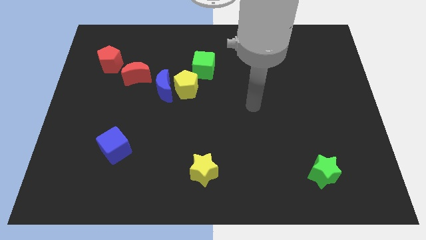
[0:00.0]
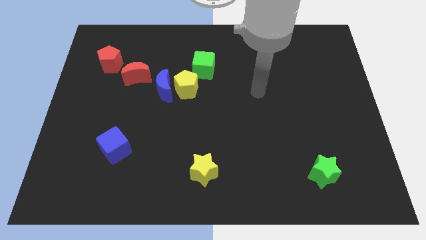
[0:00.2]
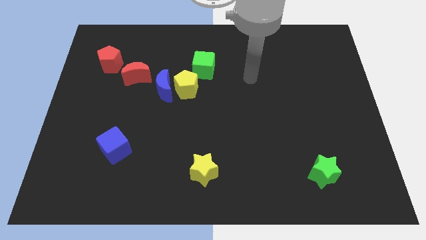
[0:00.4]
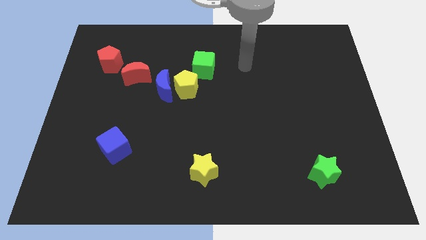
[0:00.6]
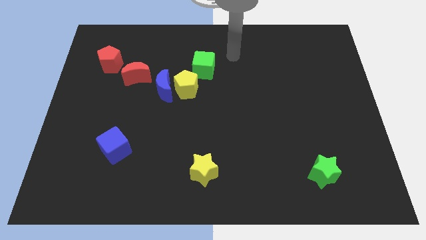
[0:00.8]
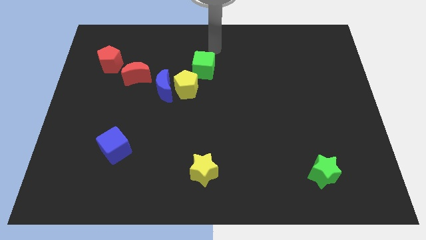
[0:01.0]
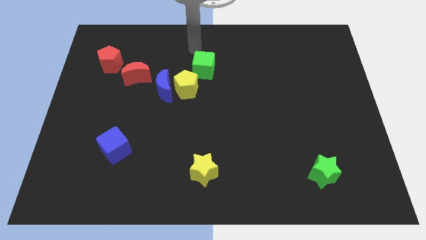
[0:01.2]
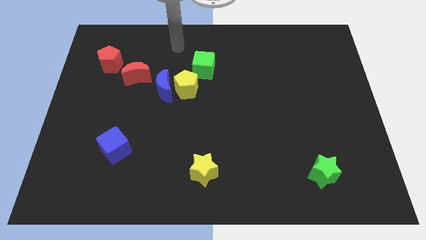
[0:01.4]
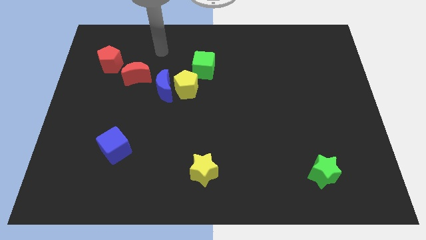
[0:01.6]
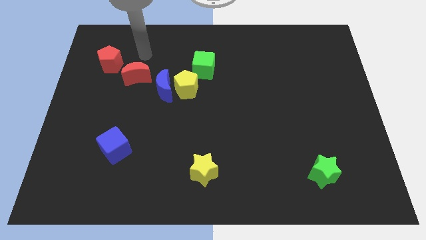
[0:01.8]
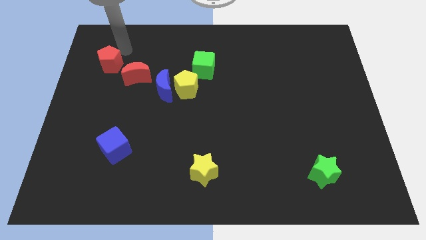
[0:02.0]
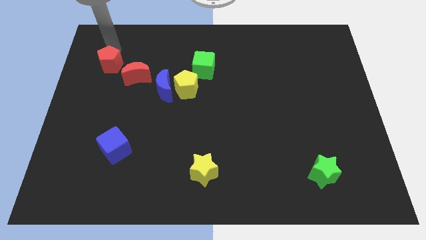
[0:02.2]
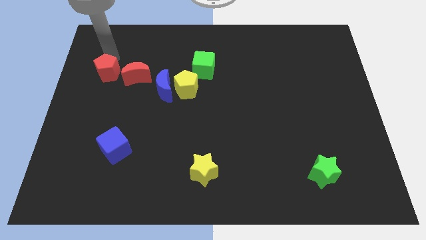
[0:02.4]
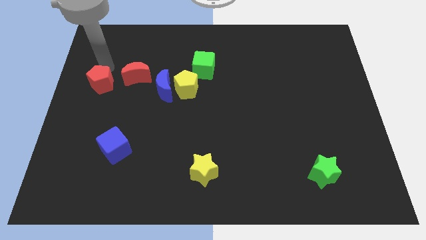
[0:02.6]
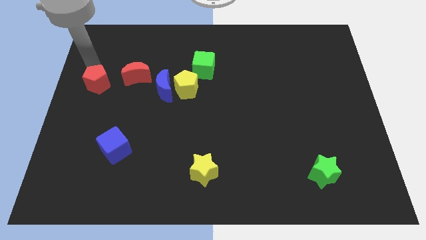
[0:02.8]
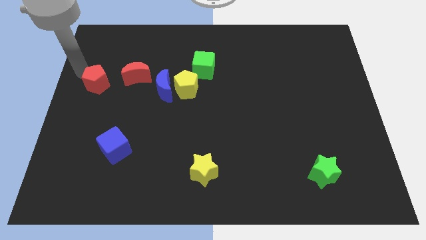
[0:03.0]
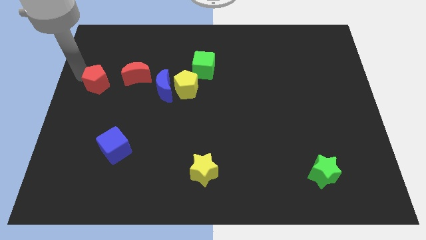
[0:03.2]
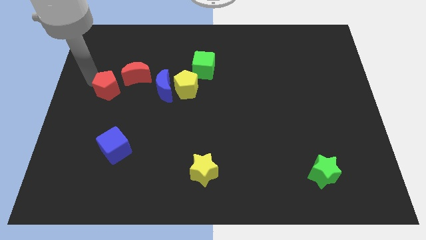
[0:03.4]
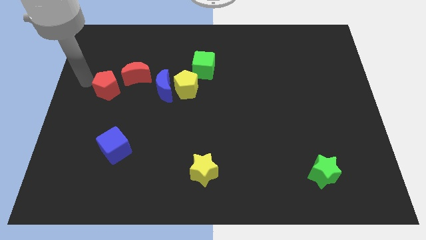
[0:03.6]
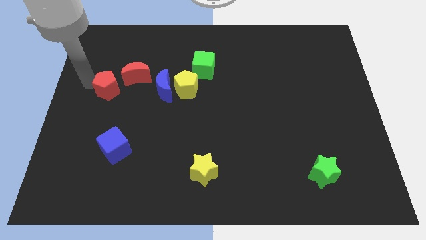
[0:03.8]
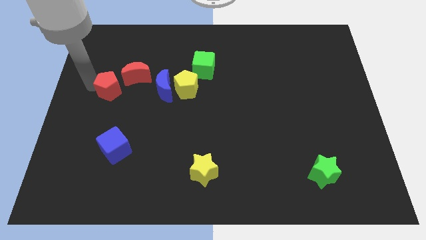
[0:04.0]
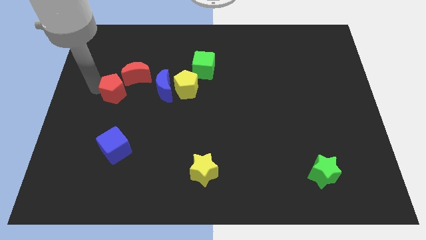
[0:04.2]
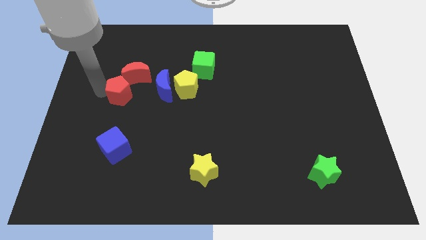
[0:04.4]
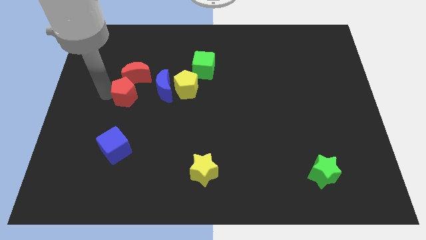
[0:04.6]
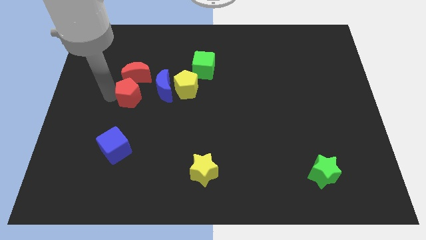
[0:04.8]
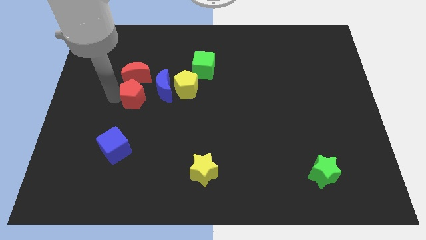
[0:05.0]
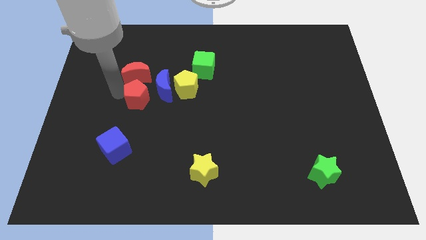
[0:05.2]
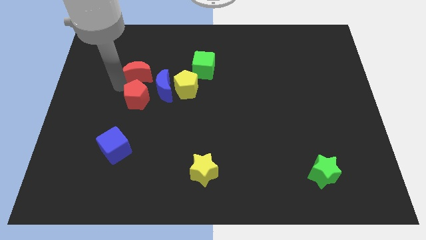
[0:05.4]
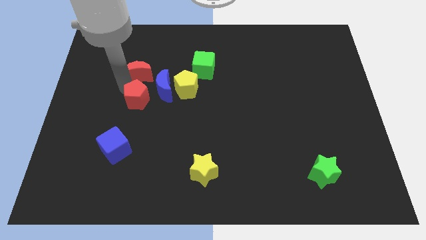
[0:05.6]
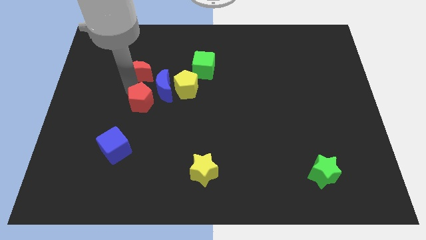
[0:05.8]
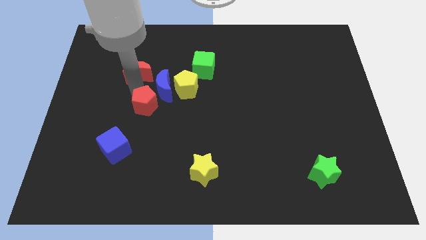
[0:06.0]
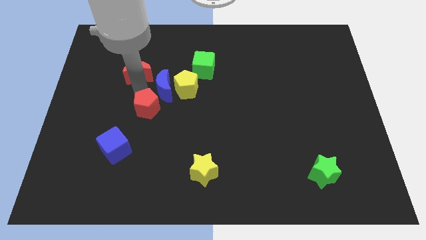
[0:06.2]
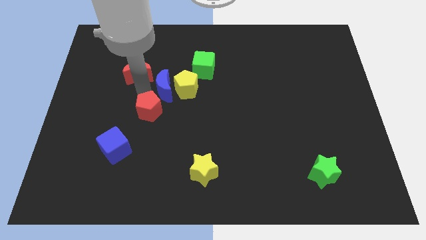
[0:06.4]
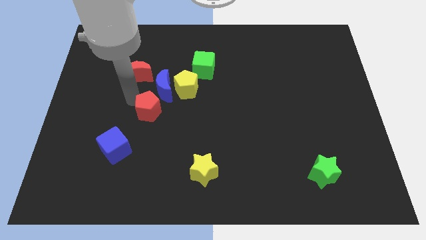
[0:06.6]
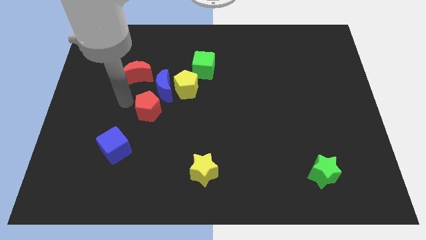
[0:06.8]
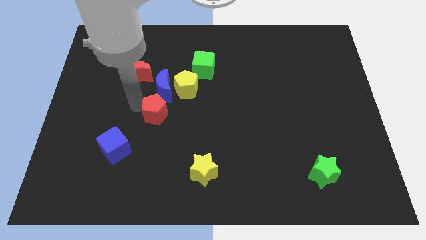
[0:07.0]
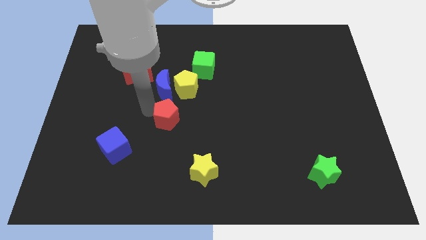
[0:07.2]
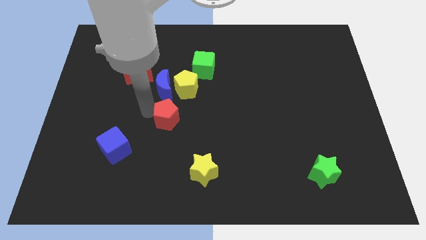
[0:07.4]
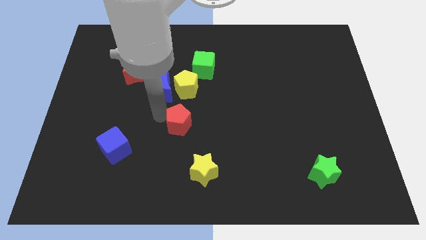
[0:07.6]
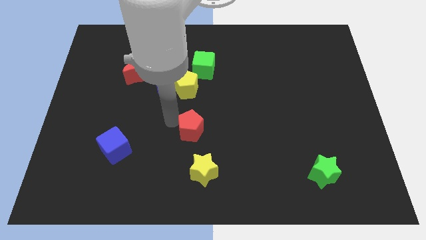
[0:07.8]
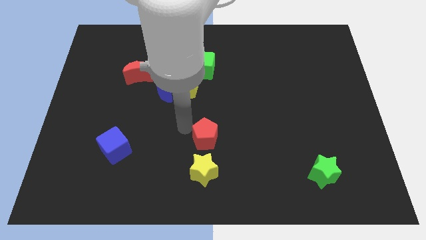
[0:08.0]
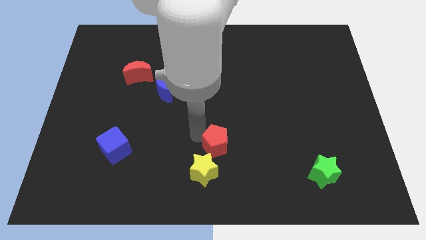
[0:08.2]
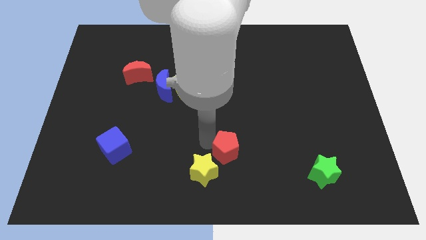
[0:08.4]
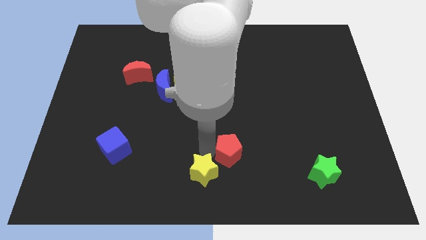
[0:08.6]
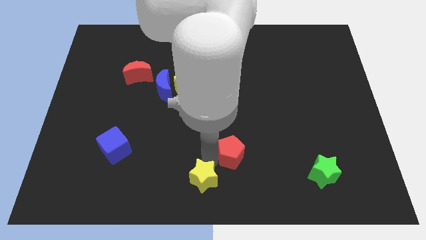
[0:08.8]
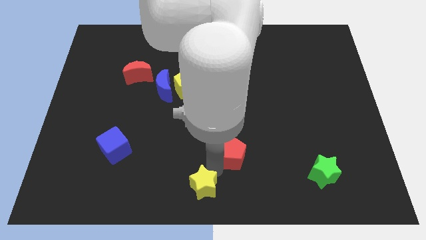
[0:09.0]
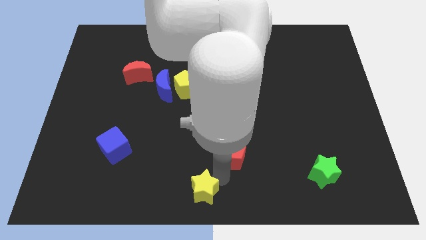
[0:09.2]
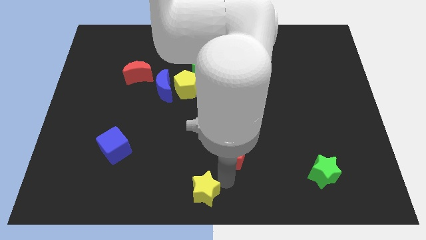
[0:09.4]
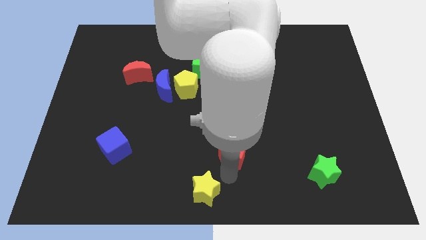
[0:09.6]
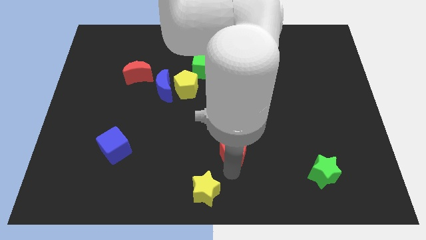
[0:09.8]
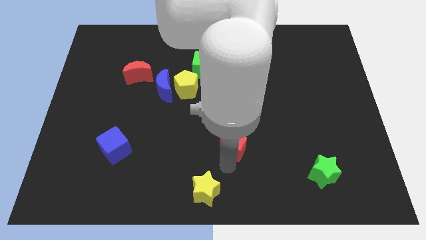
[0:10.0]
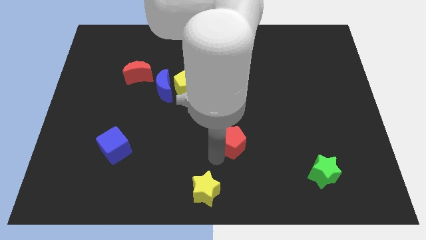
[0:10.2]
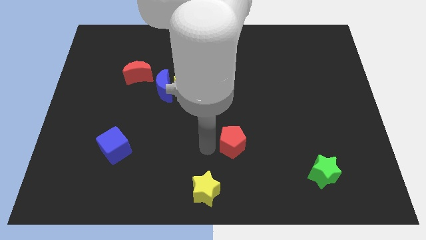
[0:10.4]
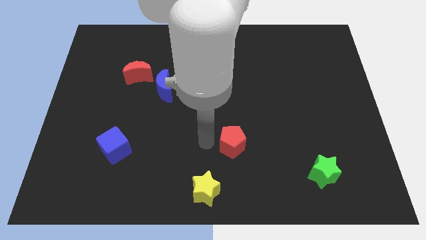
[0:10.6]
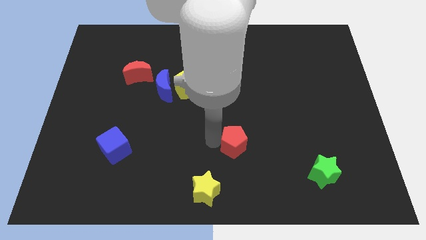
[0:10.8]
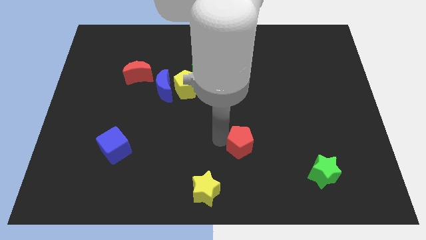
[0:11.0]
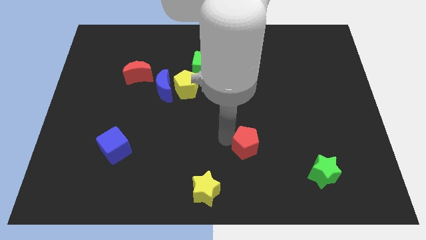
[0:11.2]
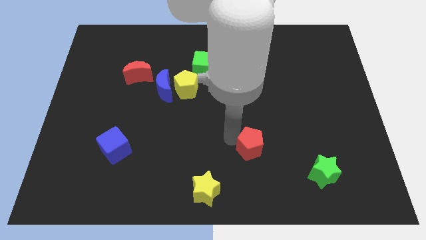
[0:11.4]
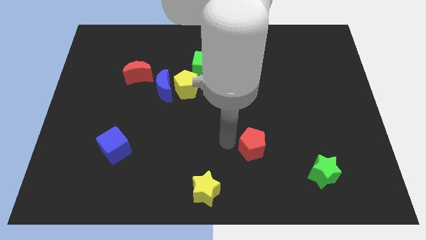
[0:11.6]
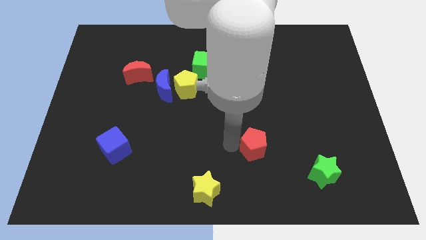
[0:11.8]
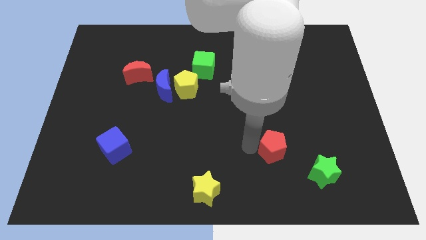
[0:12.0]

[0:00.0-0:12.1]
slide the red pentagon to the top left of the green star

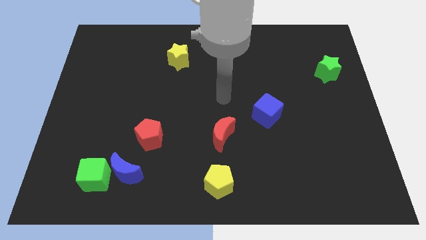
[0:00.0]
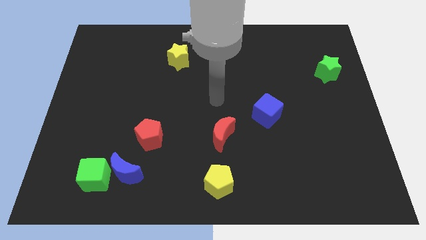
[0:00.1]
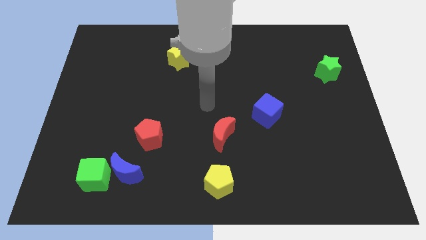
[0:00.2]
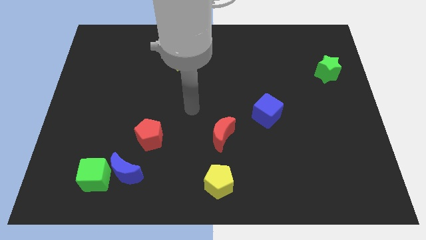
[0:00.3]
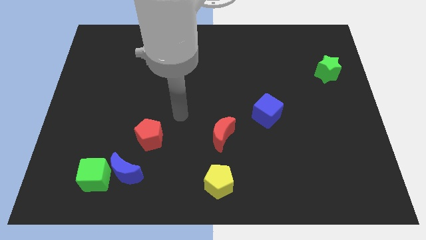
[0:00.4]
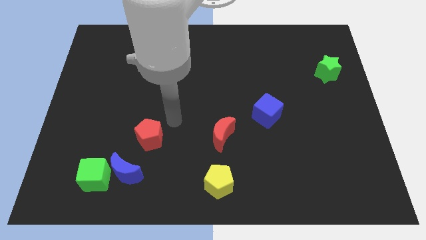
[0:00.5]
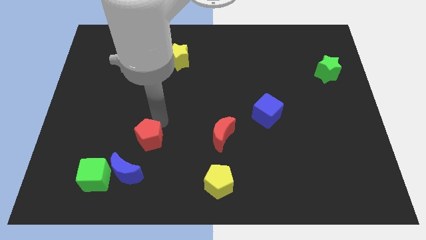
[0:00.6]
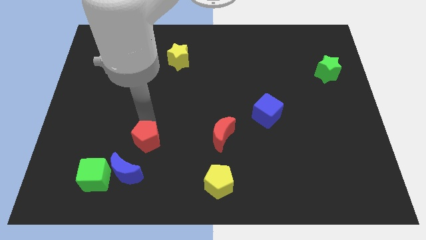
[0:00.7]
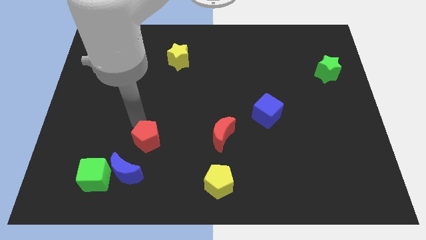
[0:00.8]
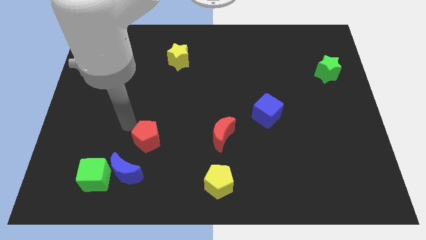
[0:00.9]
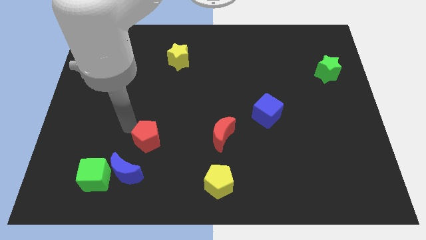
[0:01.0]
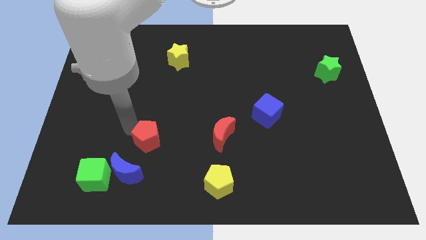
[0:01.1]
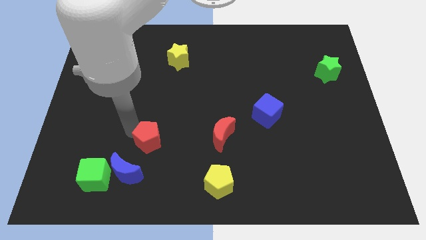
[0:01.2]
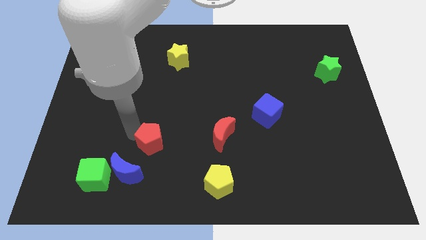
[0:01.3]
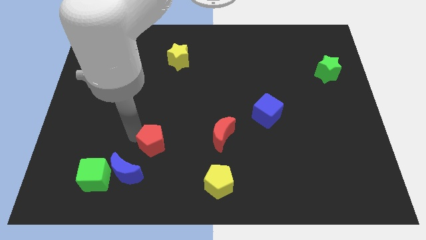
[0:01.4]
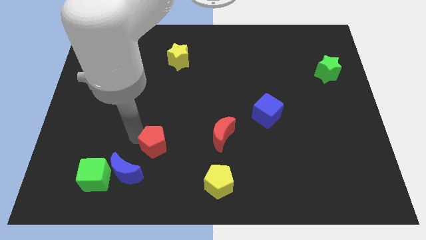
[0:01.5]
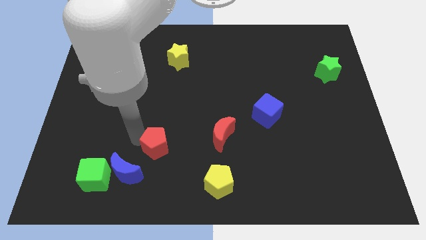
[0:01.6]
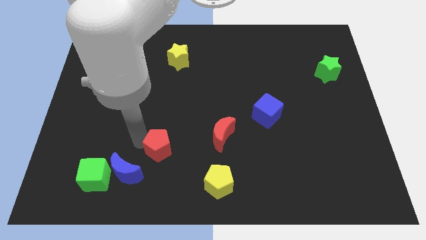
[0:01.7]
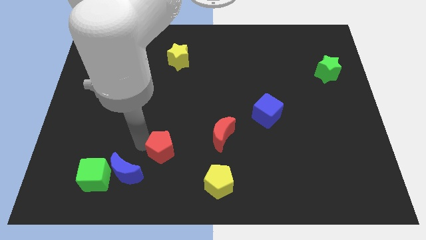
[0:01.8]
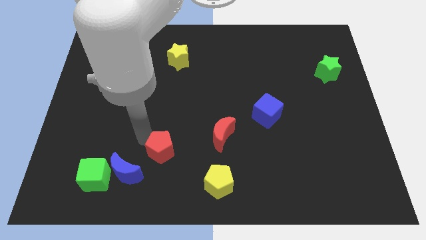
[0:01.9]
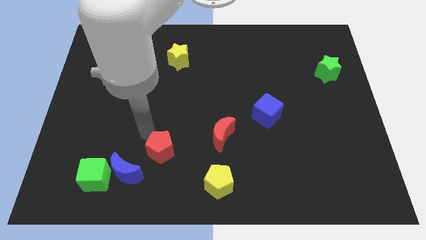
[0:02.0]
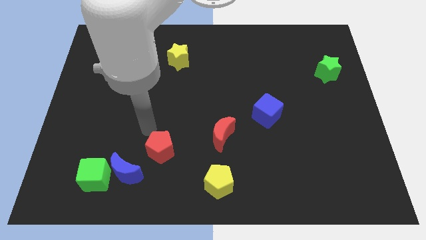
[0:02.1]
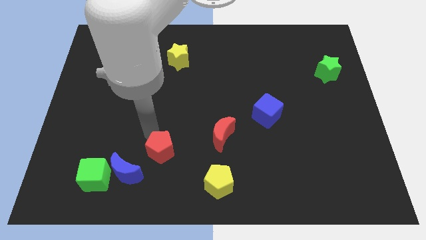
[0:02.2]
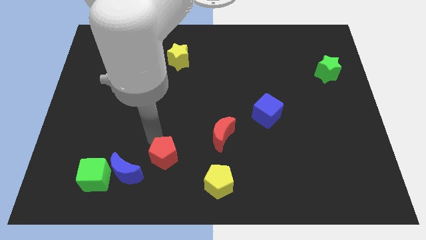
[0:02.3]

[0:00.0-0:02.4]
put the red pentagon just right of the blue moon
